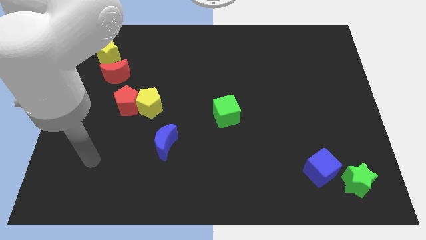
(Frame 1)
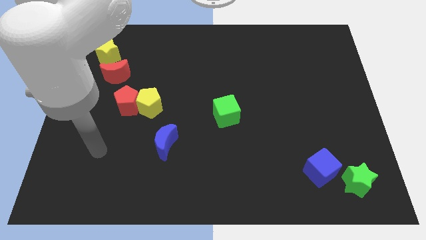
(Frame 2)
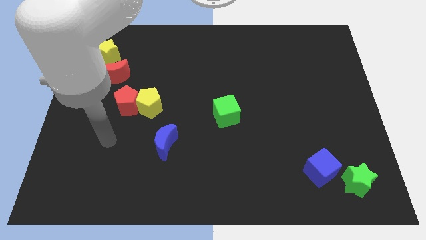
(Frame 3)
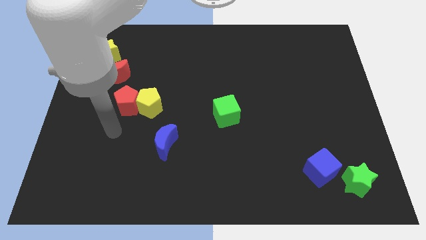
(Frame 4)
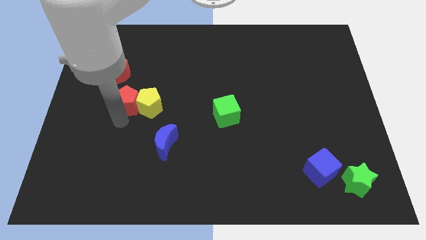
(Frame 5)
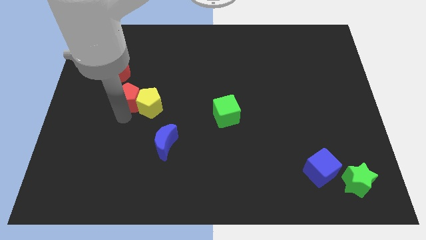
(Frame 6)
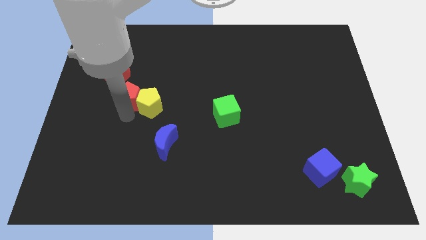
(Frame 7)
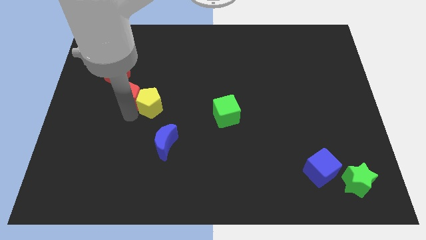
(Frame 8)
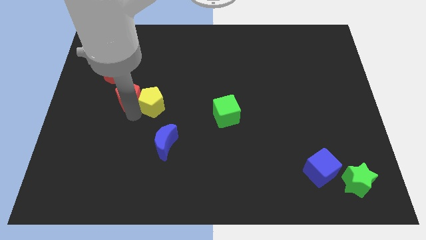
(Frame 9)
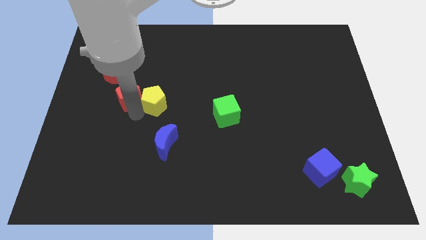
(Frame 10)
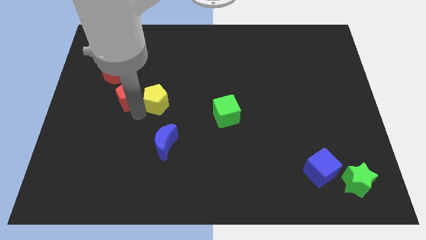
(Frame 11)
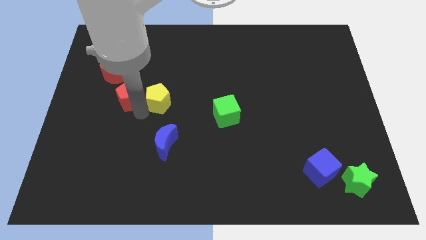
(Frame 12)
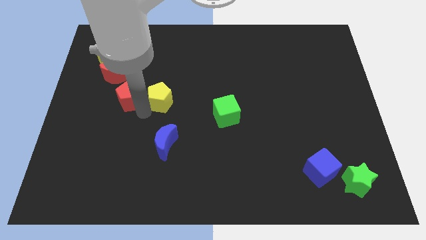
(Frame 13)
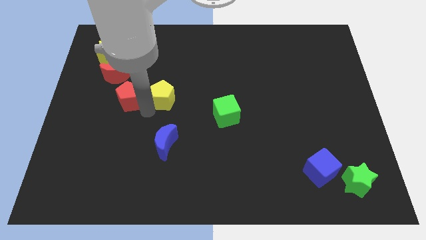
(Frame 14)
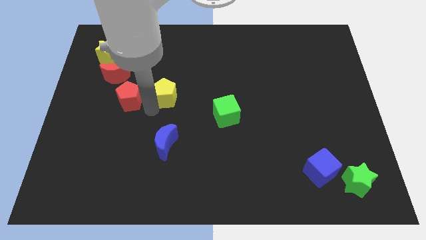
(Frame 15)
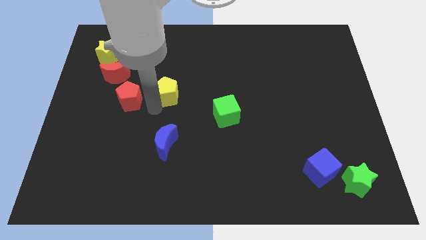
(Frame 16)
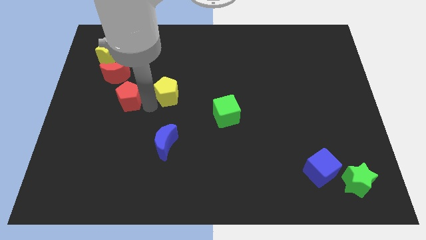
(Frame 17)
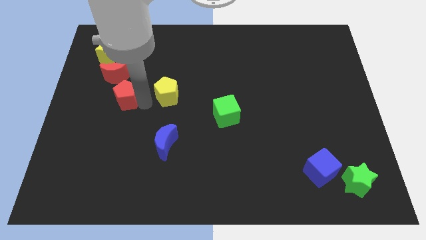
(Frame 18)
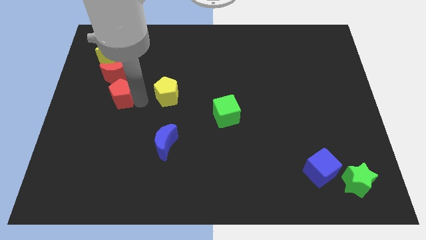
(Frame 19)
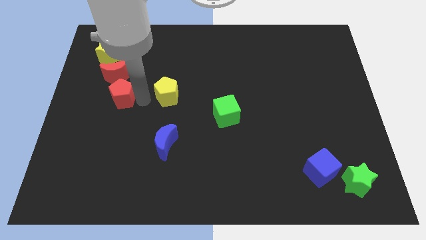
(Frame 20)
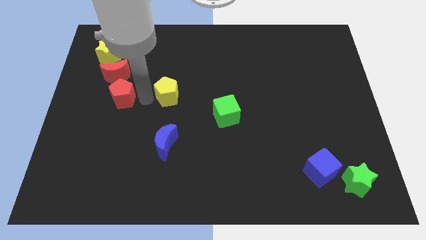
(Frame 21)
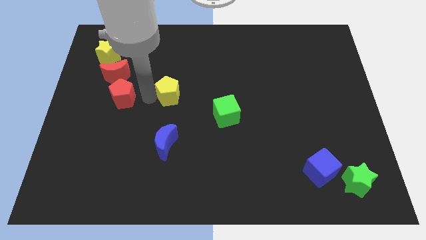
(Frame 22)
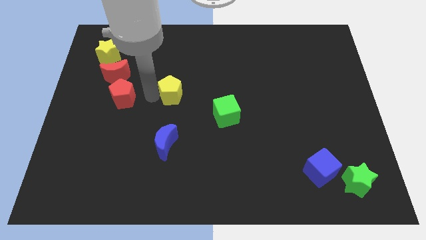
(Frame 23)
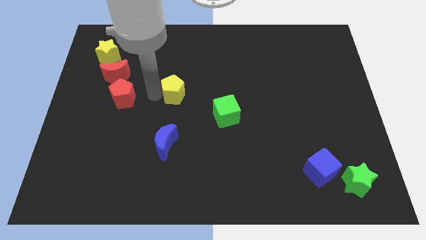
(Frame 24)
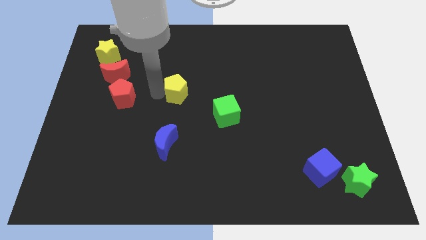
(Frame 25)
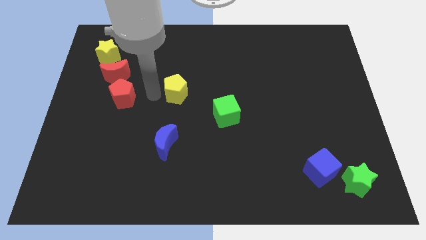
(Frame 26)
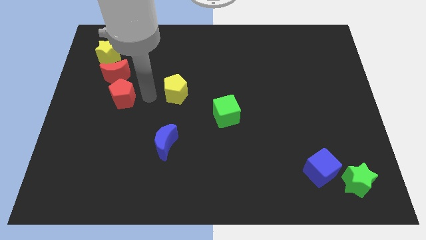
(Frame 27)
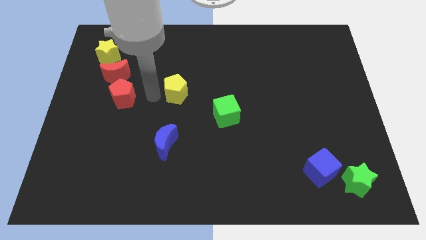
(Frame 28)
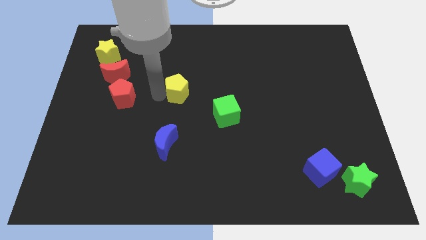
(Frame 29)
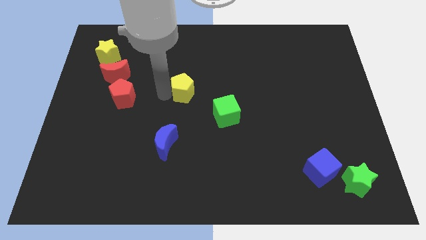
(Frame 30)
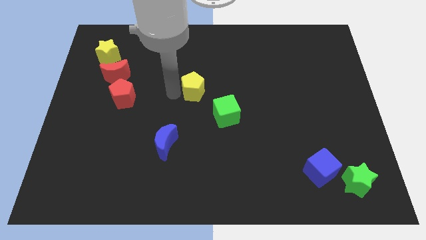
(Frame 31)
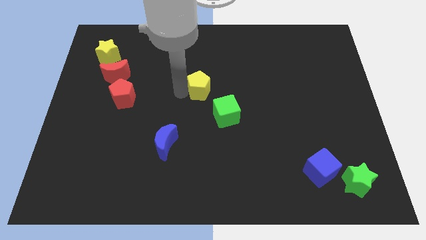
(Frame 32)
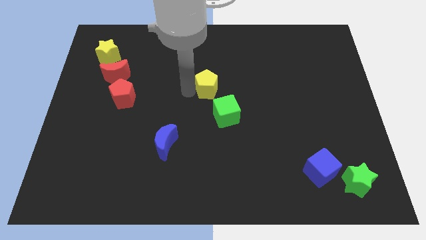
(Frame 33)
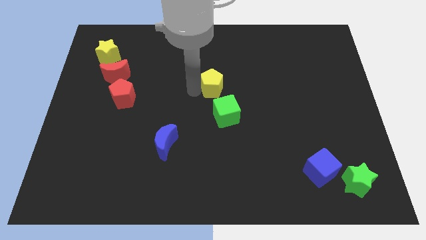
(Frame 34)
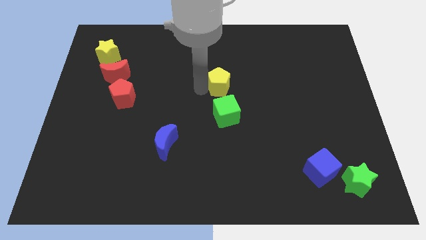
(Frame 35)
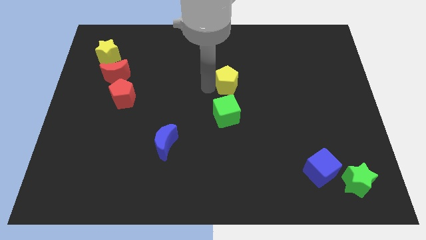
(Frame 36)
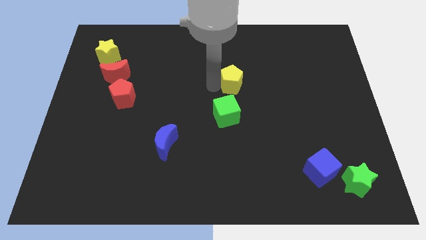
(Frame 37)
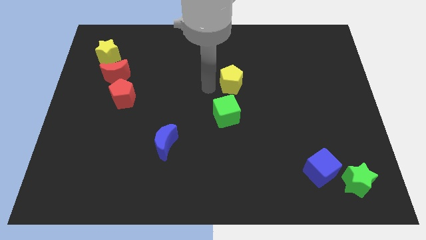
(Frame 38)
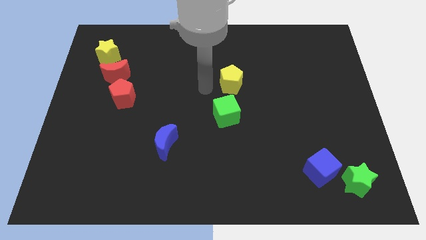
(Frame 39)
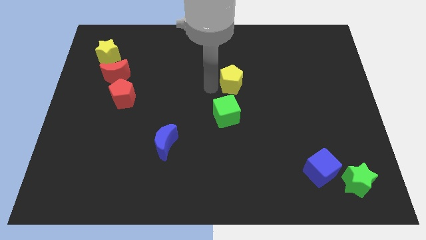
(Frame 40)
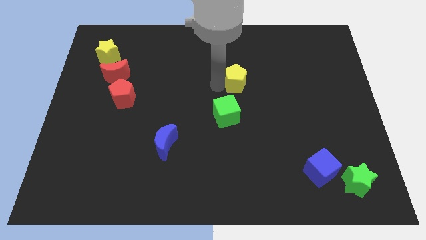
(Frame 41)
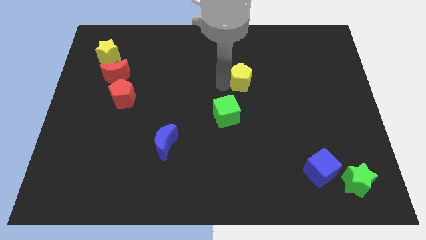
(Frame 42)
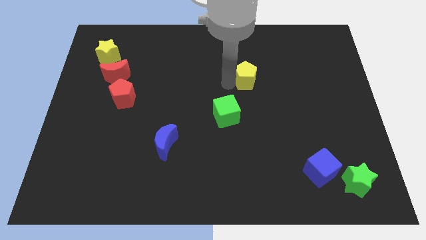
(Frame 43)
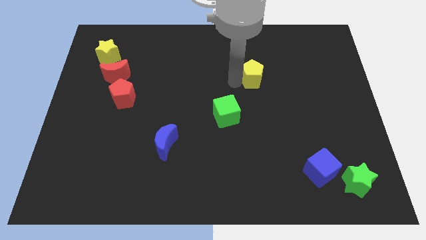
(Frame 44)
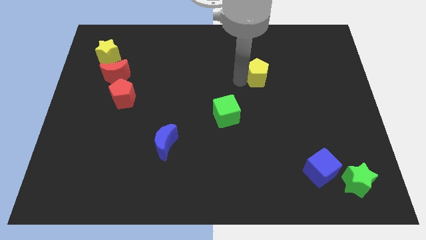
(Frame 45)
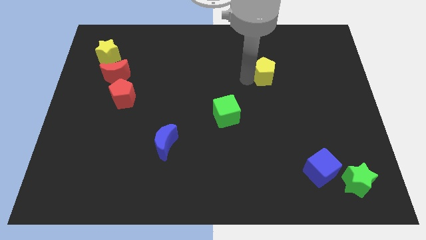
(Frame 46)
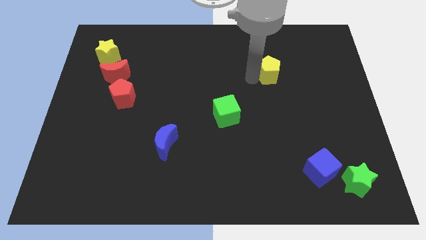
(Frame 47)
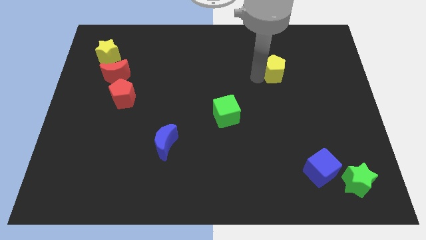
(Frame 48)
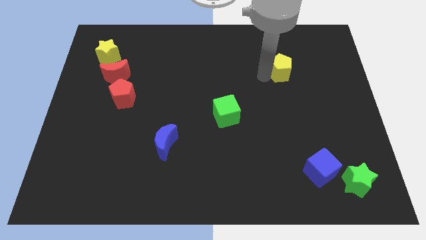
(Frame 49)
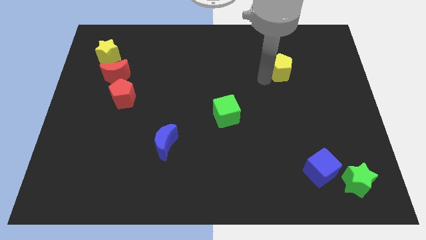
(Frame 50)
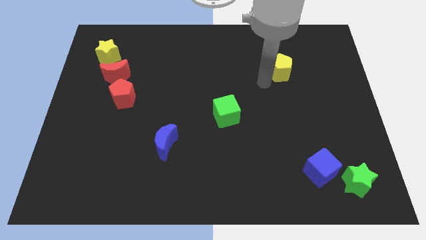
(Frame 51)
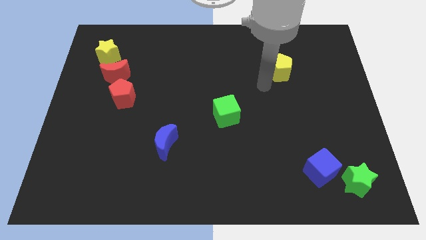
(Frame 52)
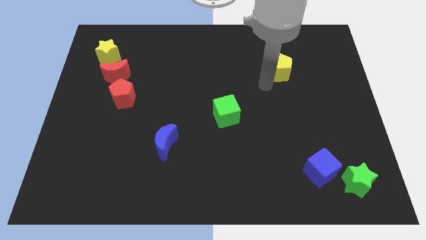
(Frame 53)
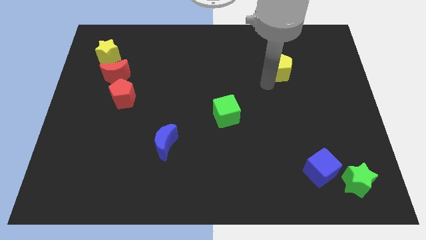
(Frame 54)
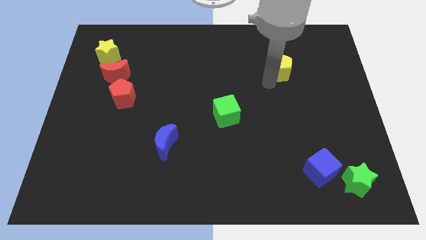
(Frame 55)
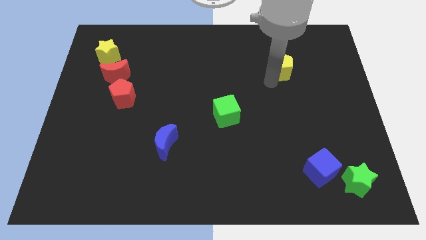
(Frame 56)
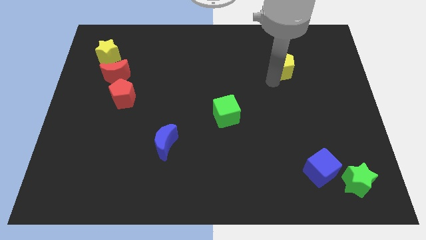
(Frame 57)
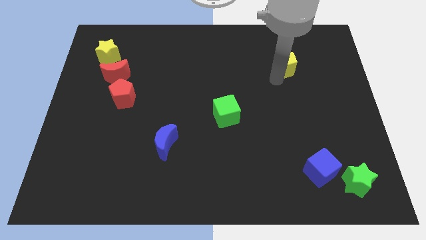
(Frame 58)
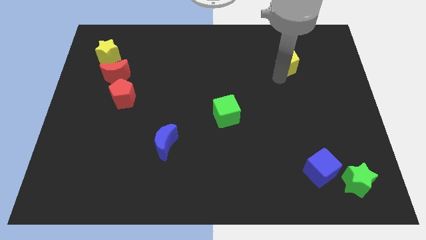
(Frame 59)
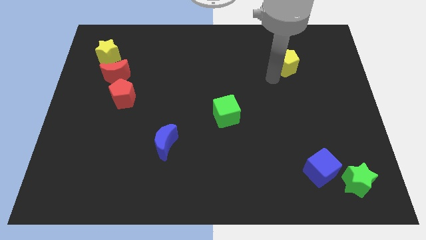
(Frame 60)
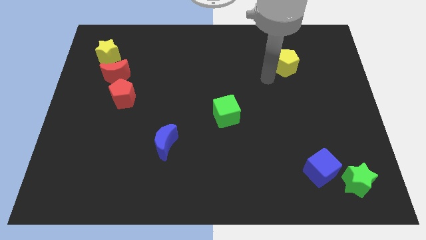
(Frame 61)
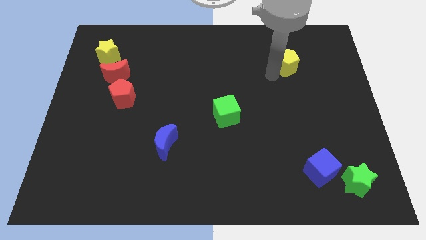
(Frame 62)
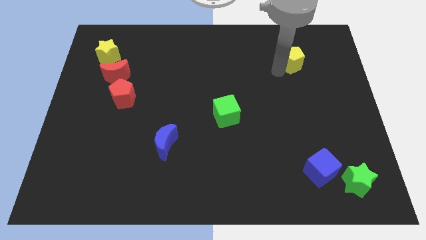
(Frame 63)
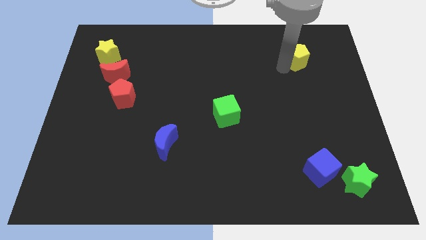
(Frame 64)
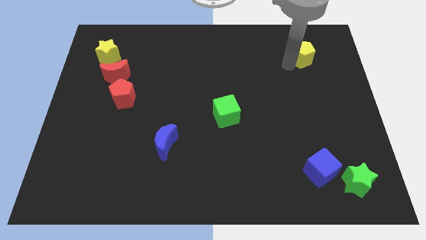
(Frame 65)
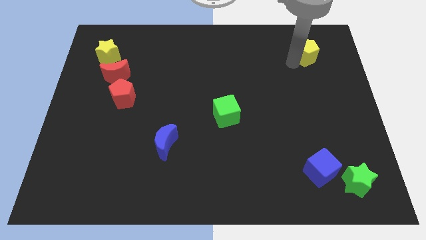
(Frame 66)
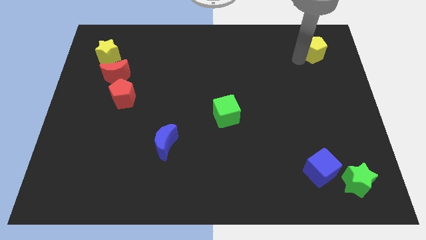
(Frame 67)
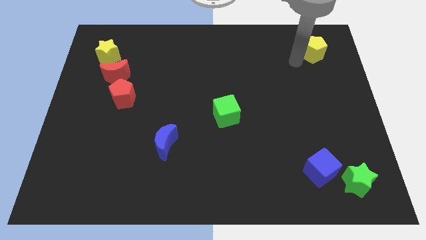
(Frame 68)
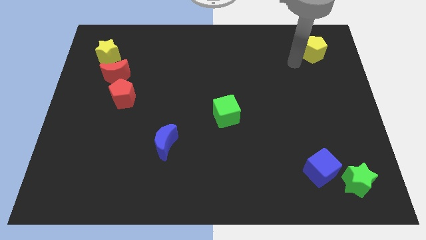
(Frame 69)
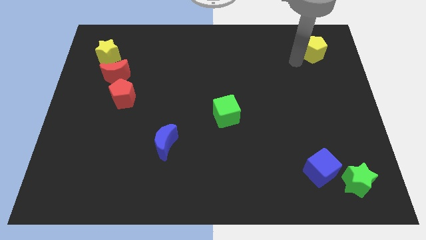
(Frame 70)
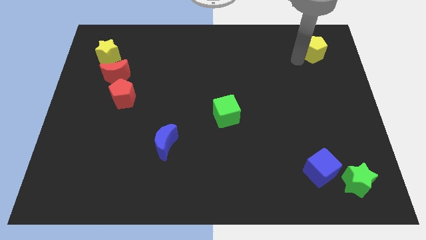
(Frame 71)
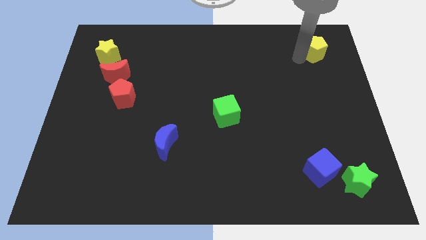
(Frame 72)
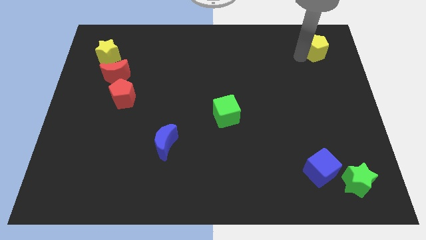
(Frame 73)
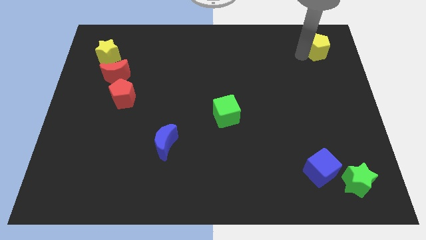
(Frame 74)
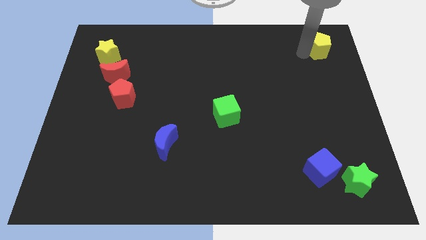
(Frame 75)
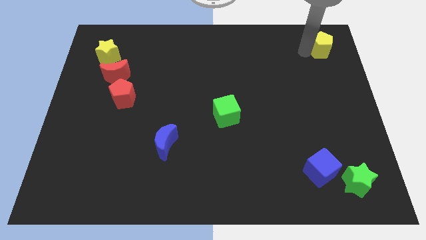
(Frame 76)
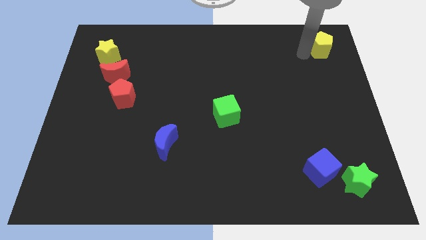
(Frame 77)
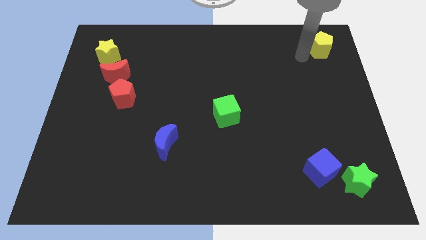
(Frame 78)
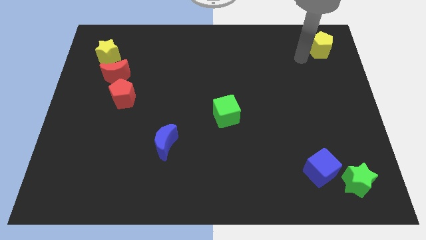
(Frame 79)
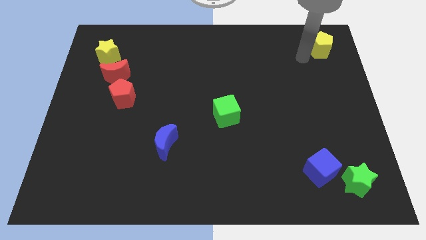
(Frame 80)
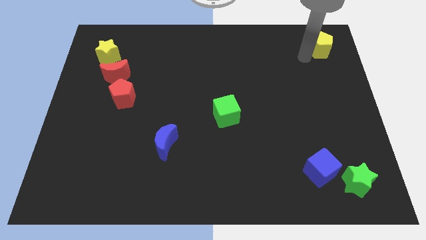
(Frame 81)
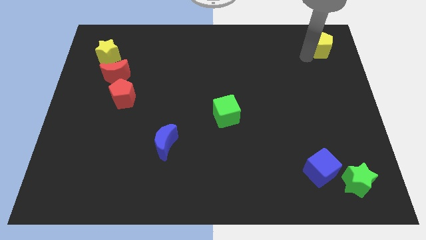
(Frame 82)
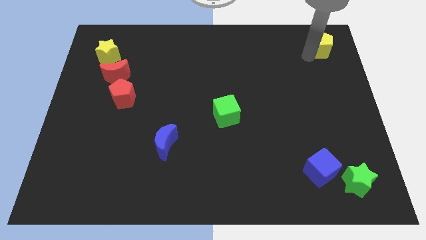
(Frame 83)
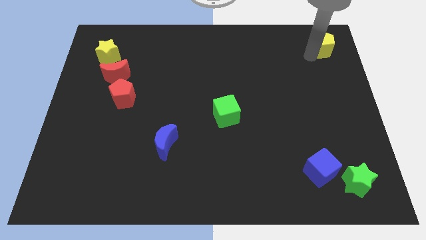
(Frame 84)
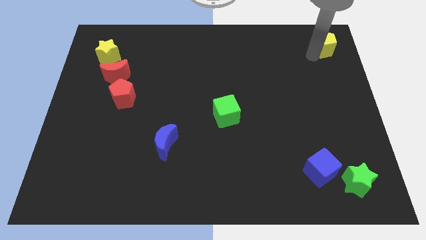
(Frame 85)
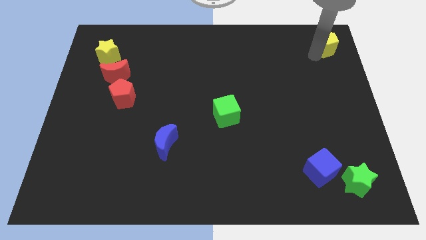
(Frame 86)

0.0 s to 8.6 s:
slide the yellow pentagon to the upper right corner
